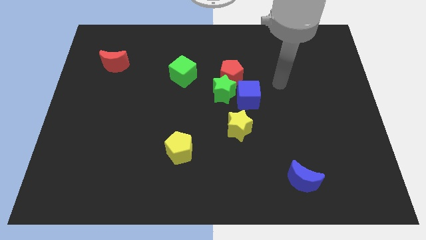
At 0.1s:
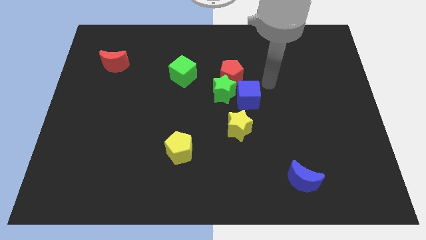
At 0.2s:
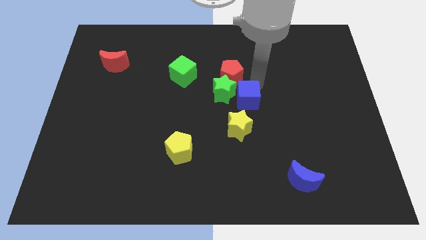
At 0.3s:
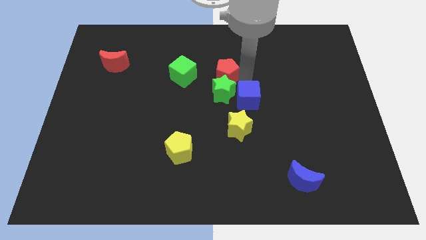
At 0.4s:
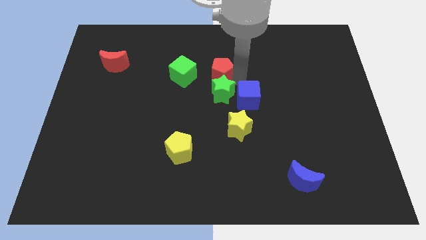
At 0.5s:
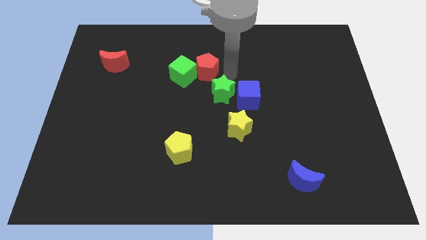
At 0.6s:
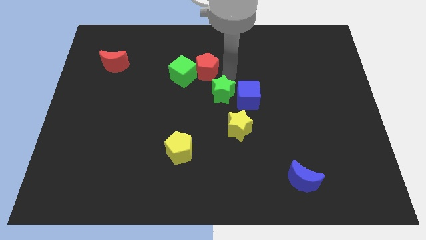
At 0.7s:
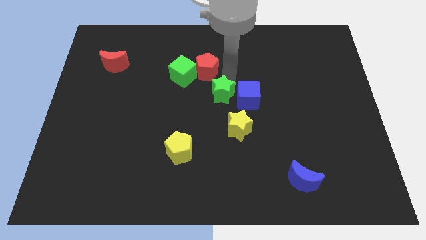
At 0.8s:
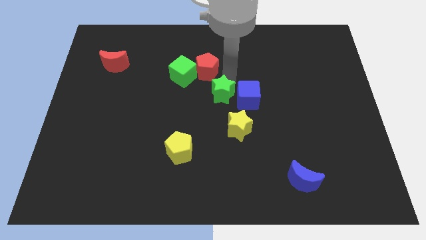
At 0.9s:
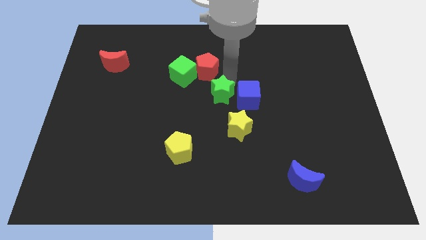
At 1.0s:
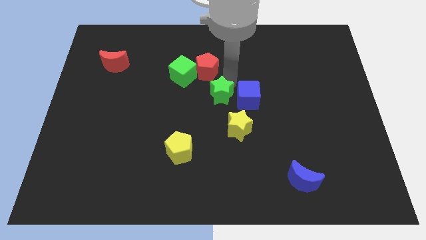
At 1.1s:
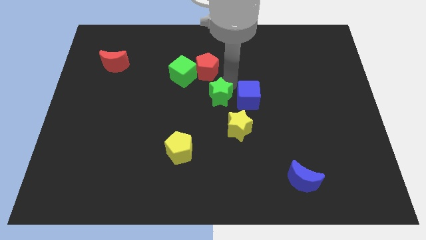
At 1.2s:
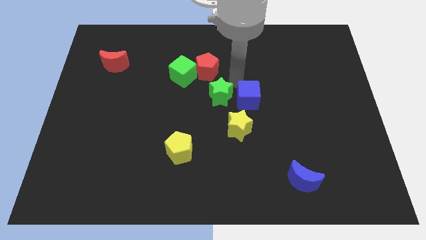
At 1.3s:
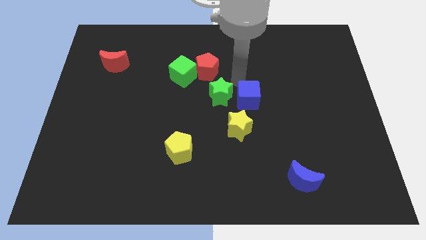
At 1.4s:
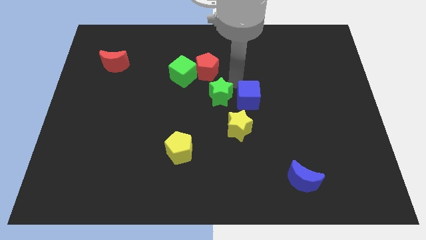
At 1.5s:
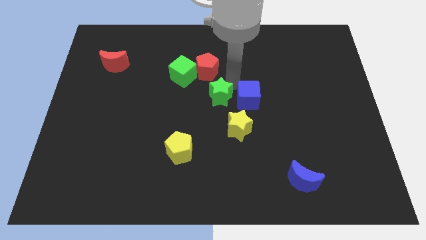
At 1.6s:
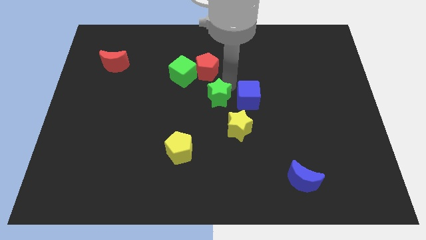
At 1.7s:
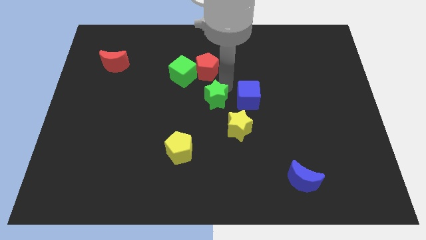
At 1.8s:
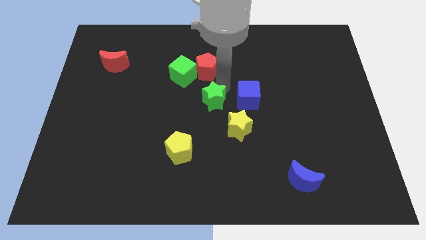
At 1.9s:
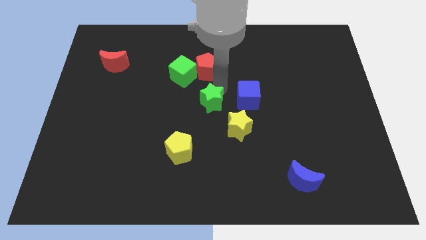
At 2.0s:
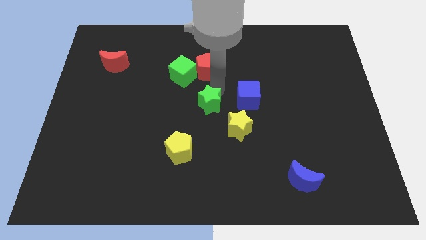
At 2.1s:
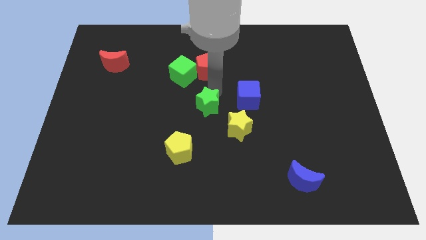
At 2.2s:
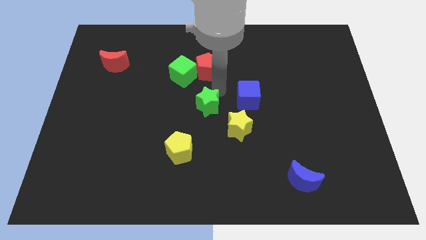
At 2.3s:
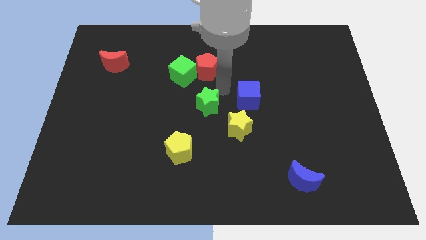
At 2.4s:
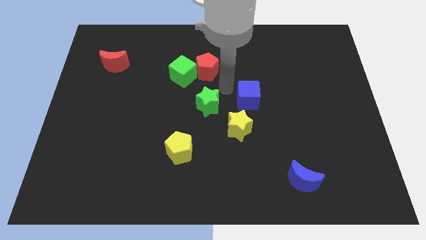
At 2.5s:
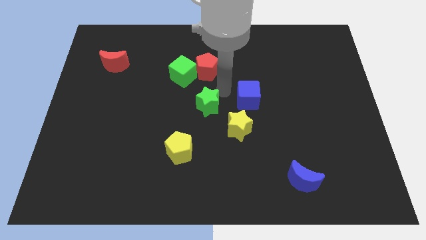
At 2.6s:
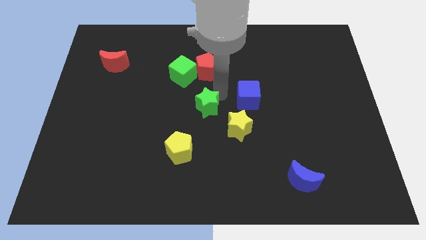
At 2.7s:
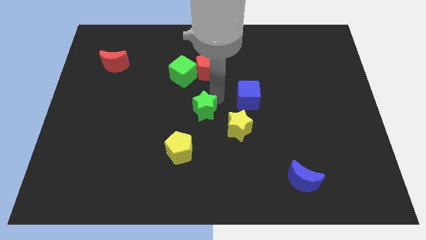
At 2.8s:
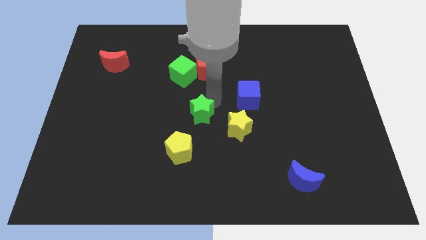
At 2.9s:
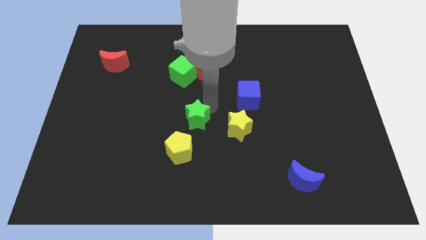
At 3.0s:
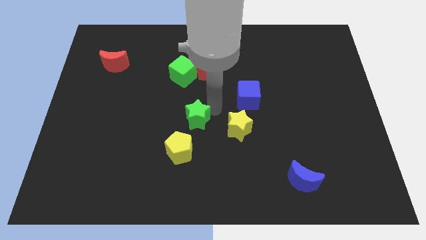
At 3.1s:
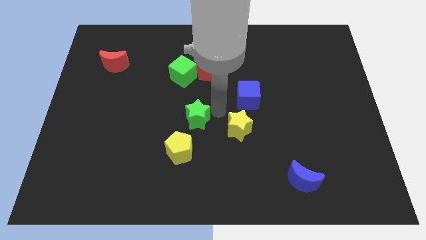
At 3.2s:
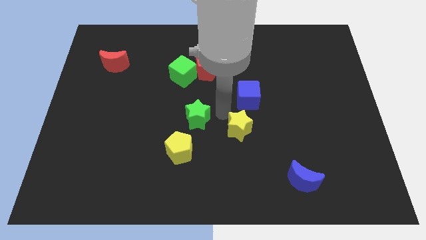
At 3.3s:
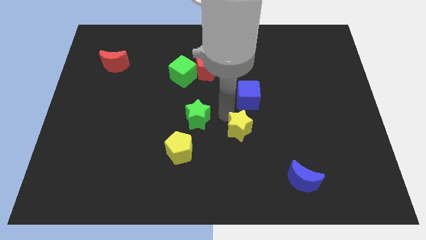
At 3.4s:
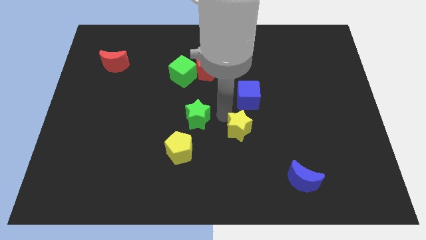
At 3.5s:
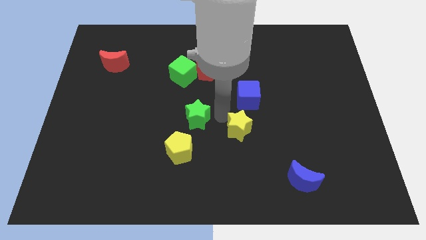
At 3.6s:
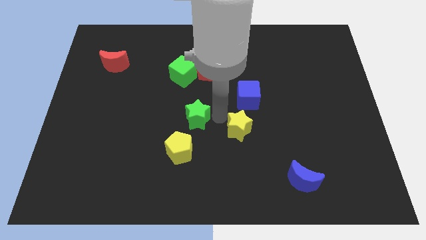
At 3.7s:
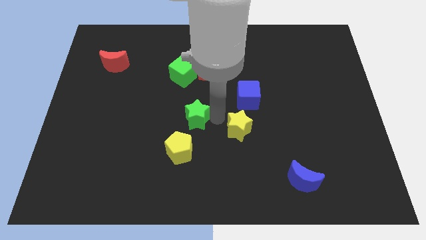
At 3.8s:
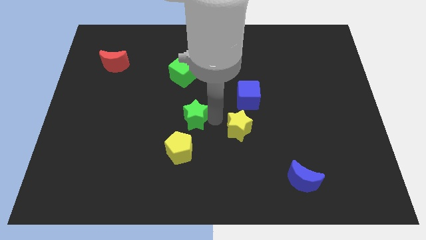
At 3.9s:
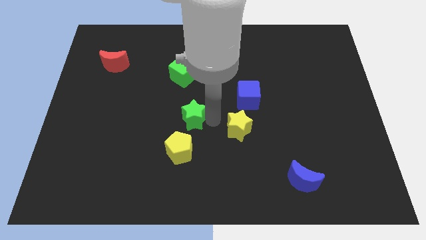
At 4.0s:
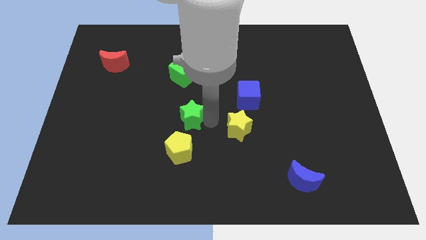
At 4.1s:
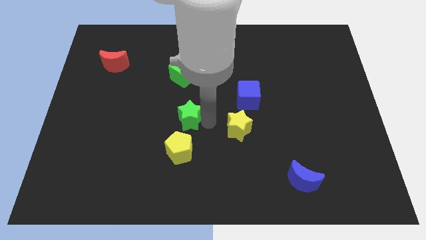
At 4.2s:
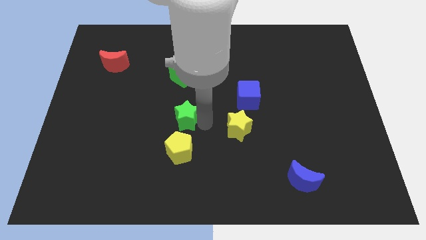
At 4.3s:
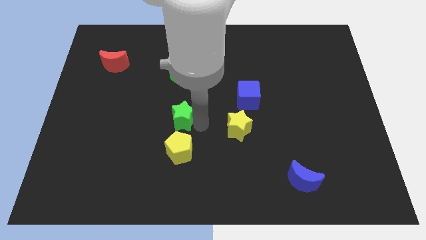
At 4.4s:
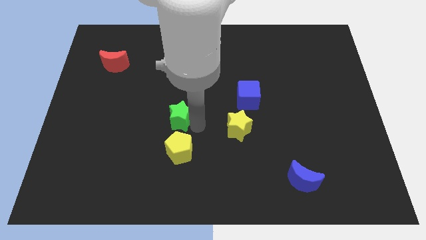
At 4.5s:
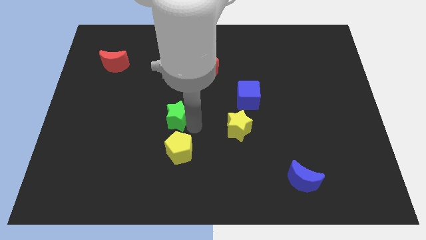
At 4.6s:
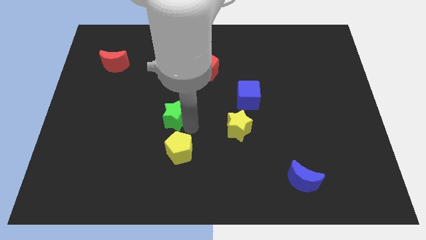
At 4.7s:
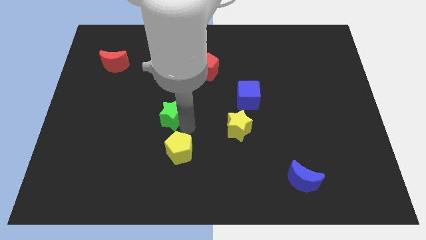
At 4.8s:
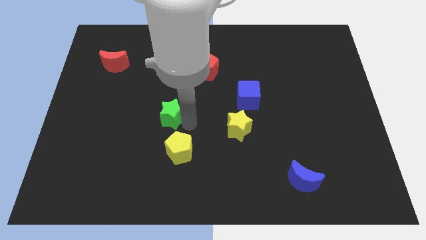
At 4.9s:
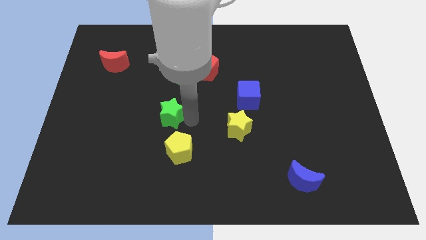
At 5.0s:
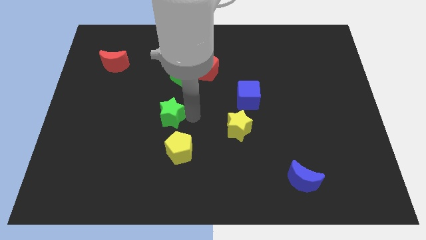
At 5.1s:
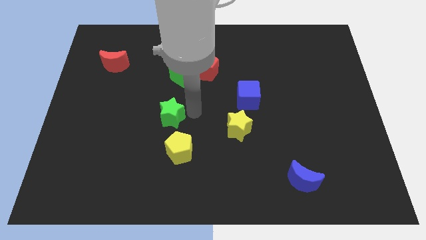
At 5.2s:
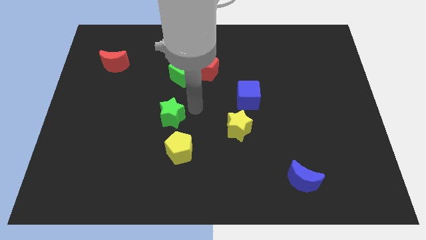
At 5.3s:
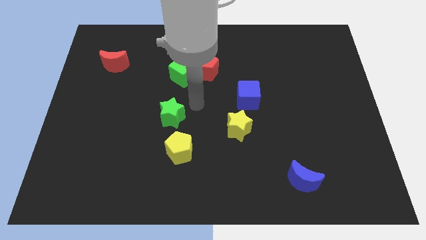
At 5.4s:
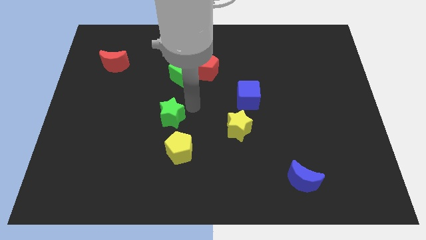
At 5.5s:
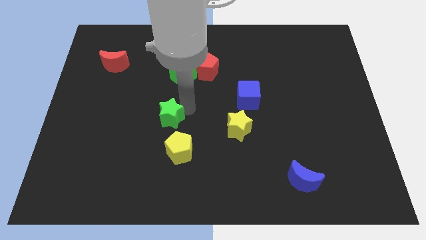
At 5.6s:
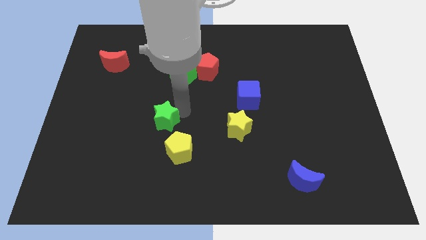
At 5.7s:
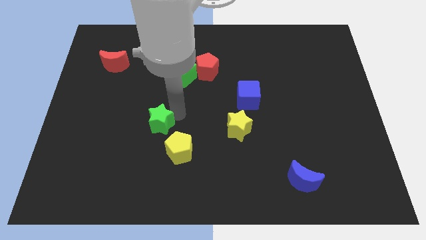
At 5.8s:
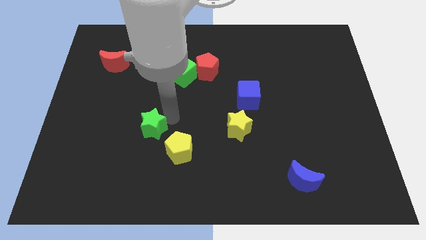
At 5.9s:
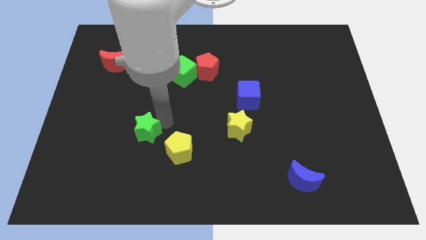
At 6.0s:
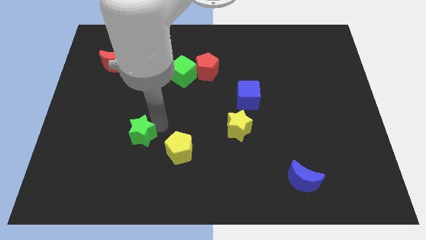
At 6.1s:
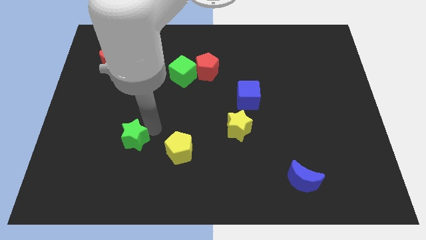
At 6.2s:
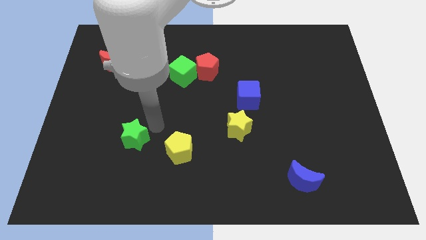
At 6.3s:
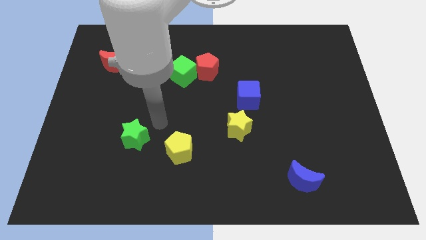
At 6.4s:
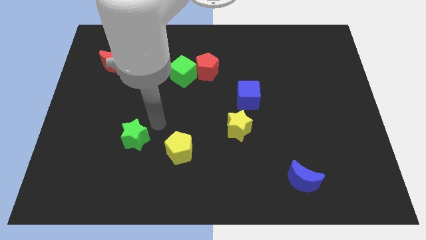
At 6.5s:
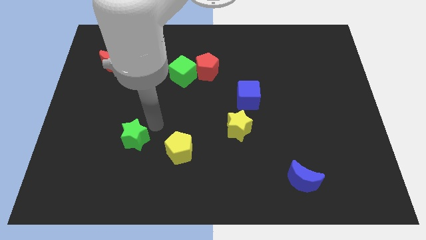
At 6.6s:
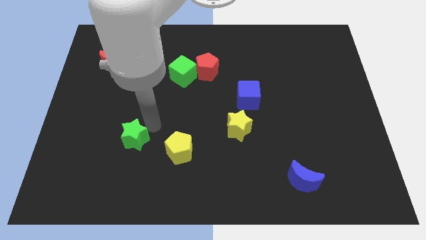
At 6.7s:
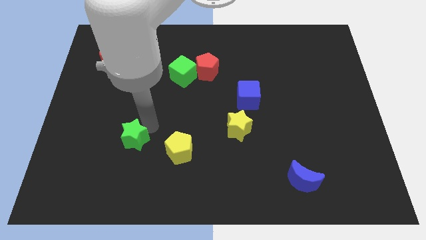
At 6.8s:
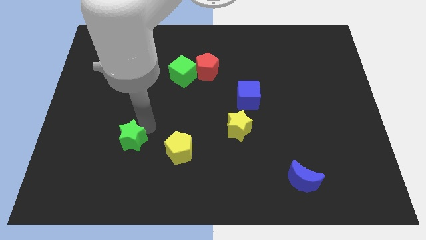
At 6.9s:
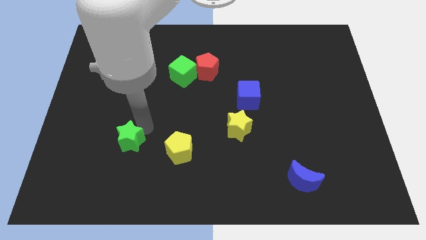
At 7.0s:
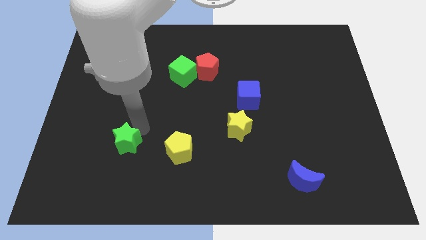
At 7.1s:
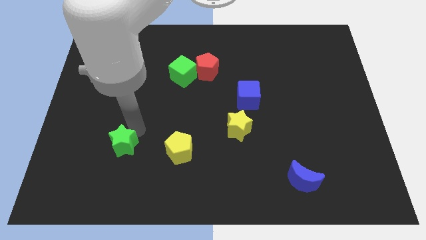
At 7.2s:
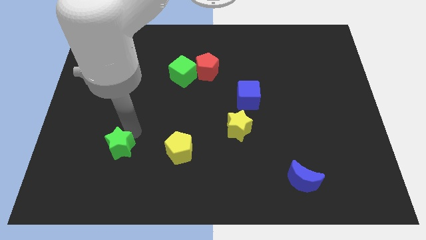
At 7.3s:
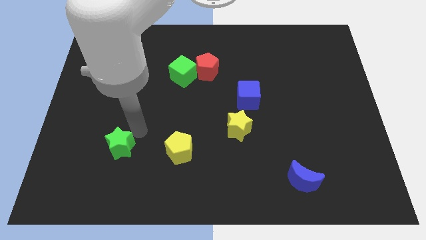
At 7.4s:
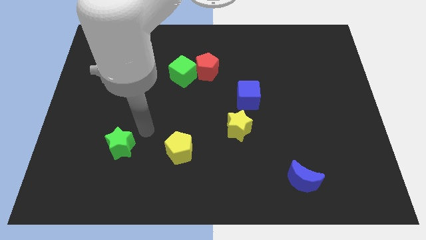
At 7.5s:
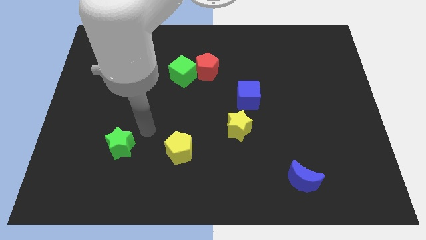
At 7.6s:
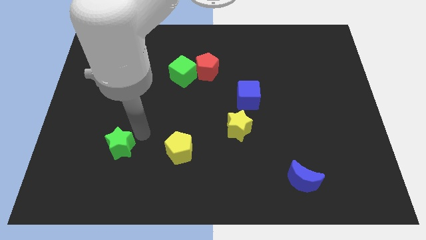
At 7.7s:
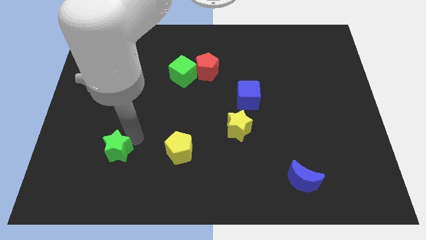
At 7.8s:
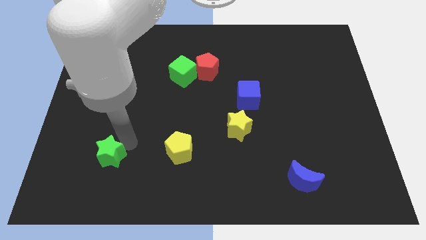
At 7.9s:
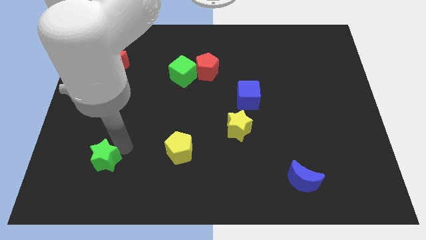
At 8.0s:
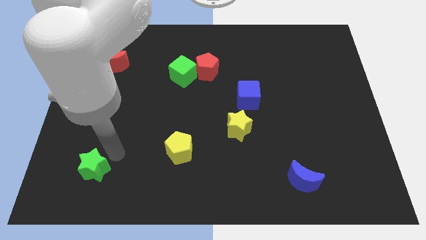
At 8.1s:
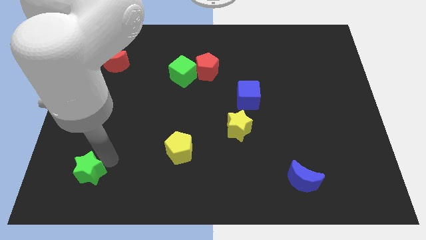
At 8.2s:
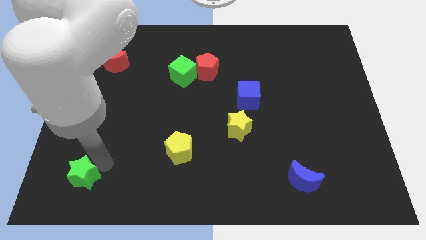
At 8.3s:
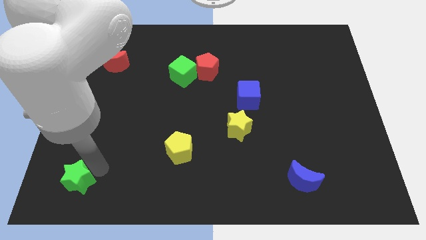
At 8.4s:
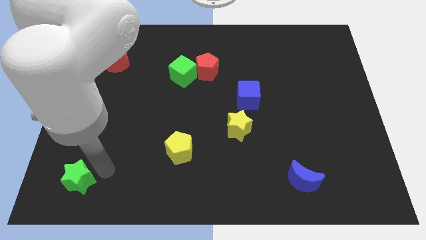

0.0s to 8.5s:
push the green star to the bottom left
